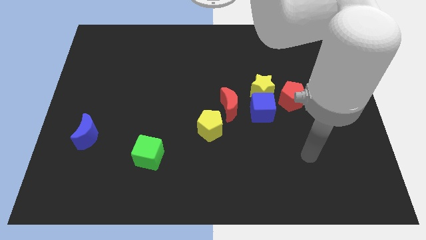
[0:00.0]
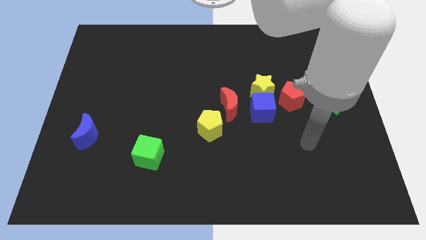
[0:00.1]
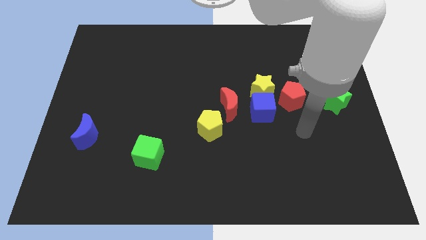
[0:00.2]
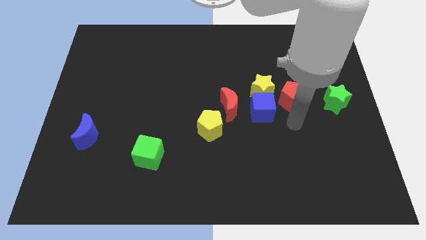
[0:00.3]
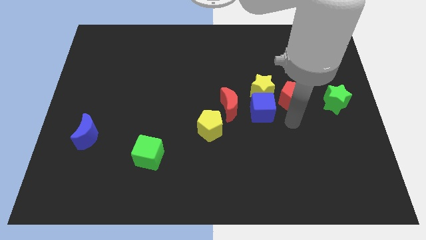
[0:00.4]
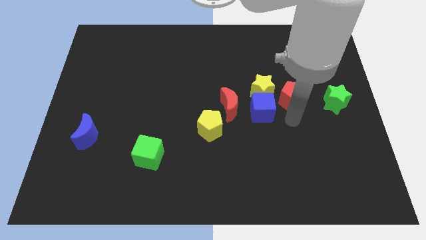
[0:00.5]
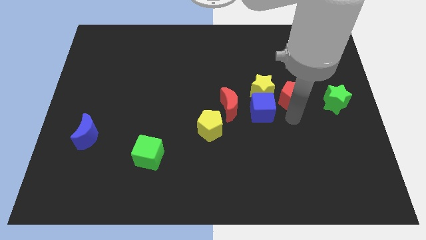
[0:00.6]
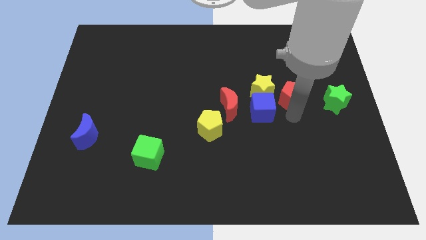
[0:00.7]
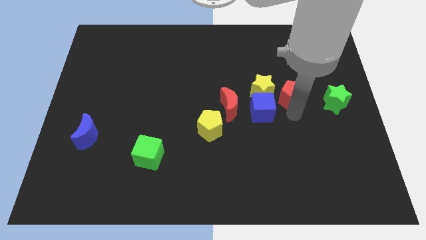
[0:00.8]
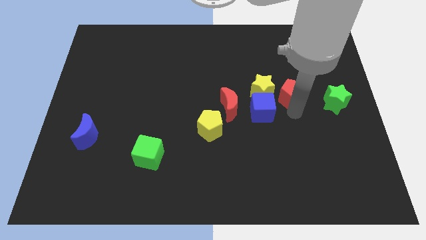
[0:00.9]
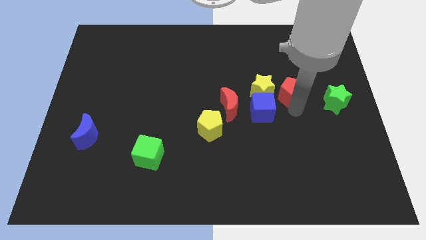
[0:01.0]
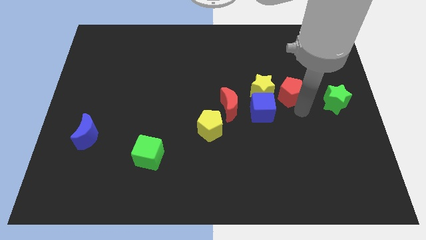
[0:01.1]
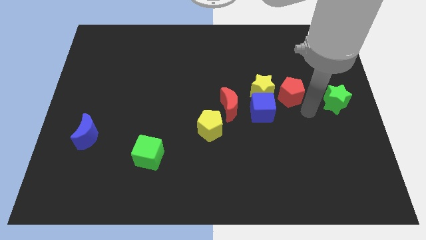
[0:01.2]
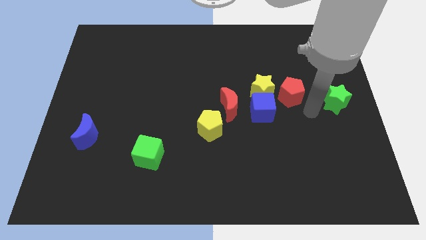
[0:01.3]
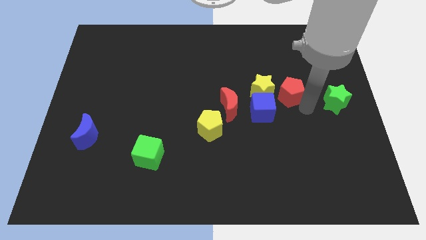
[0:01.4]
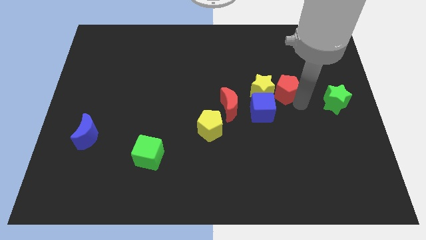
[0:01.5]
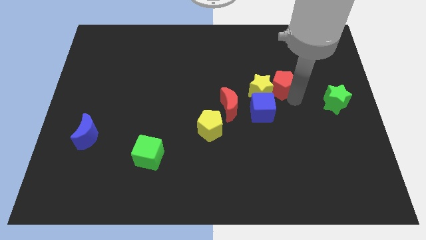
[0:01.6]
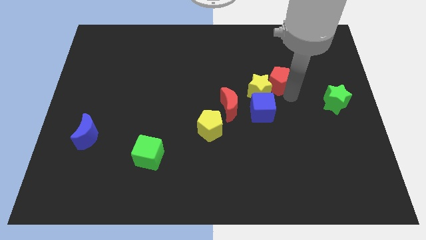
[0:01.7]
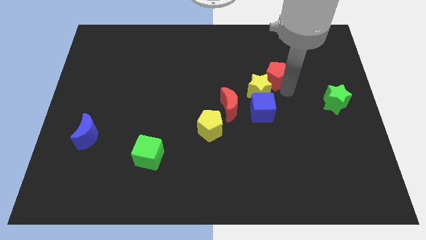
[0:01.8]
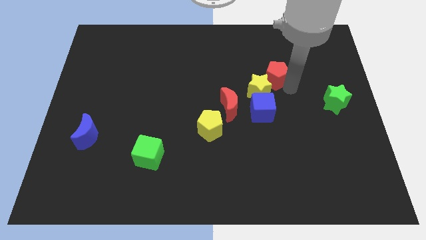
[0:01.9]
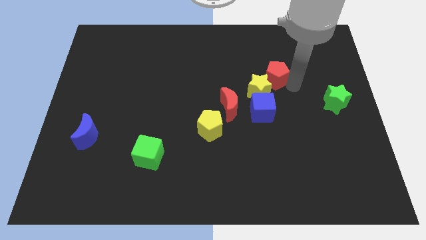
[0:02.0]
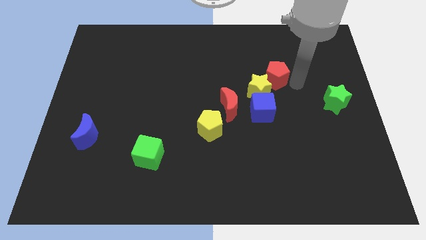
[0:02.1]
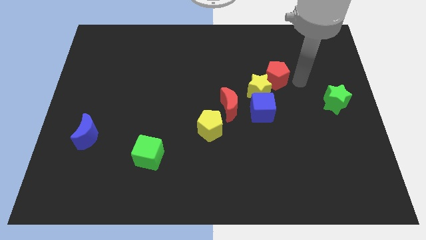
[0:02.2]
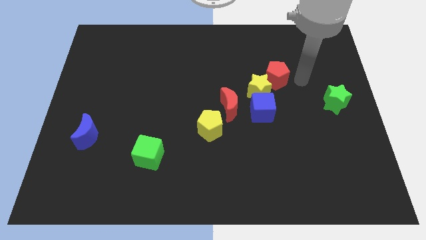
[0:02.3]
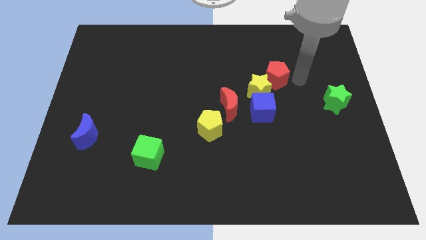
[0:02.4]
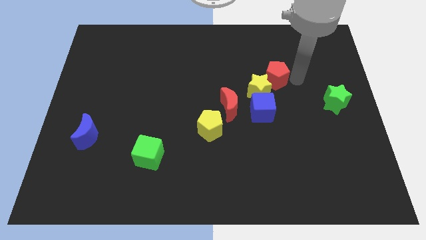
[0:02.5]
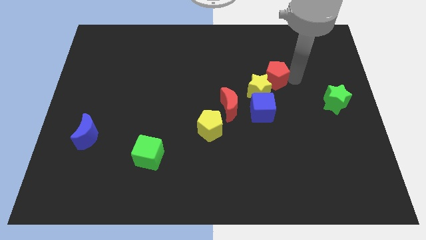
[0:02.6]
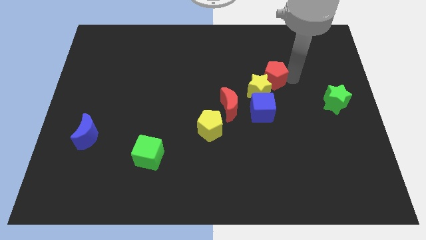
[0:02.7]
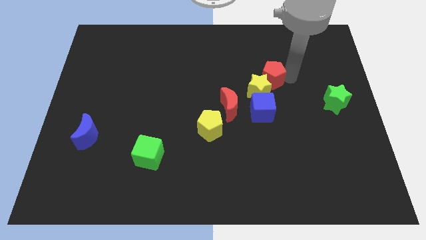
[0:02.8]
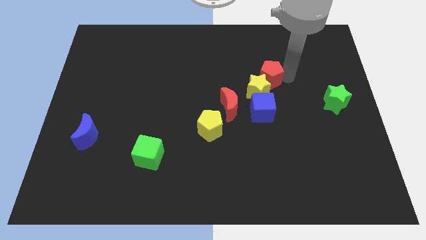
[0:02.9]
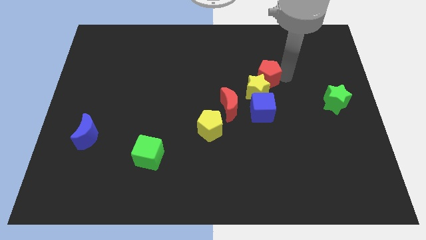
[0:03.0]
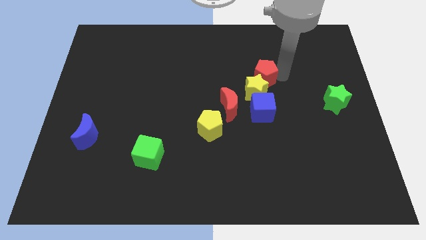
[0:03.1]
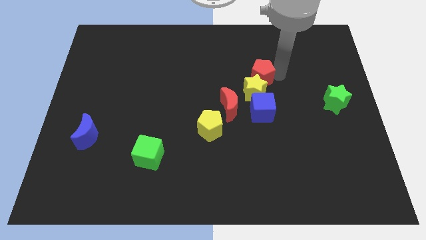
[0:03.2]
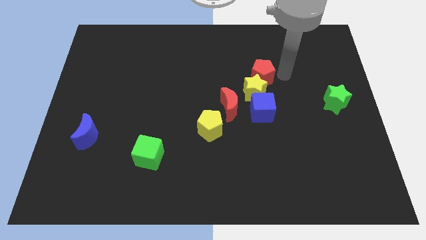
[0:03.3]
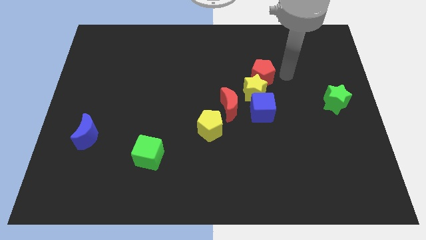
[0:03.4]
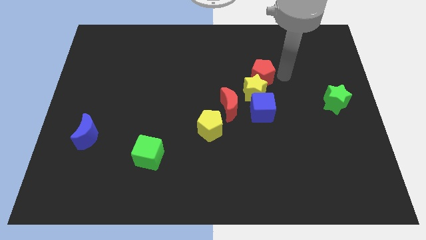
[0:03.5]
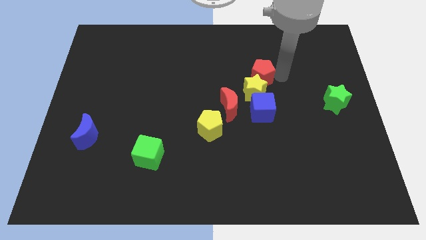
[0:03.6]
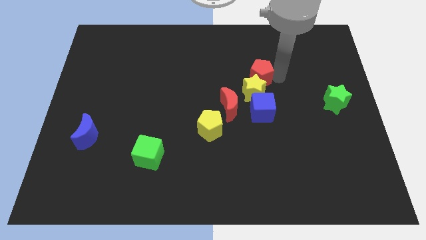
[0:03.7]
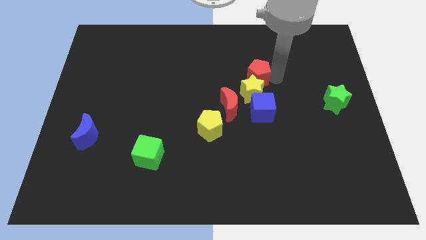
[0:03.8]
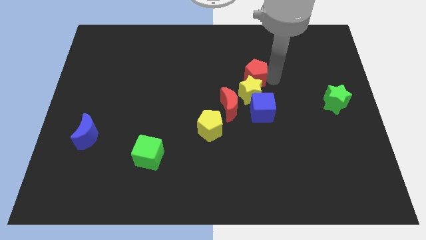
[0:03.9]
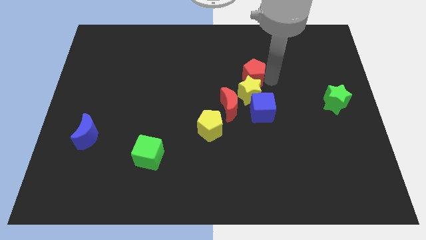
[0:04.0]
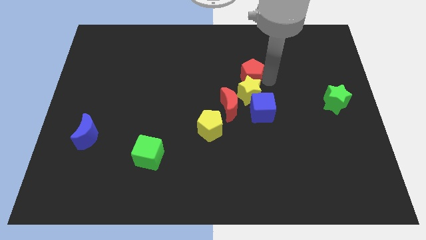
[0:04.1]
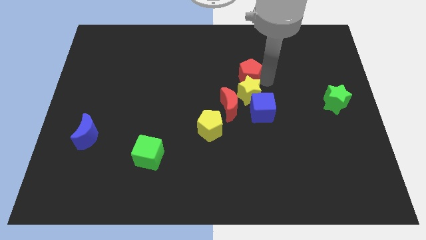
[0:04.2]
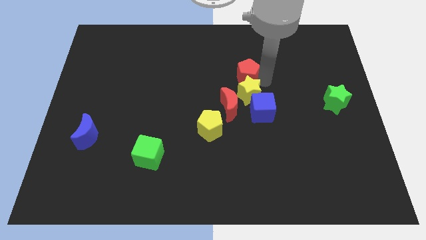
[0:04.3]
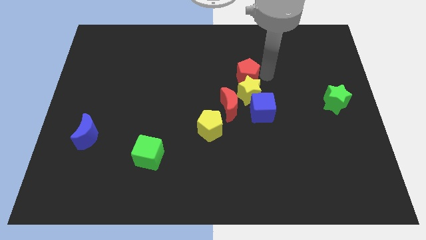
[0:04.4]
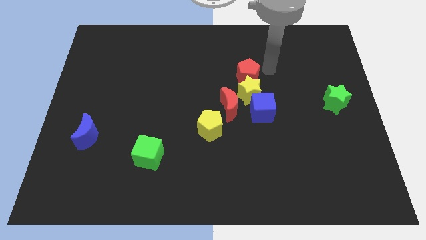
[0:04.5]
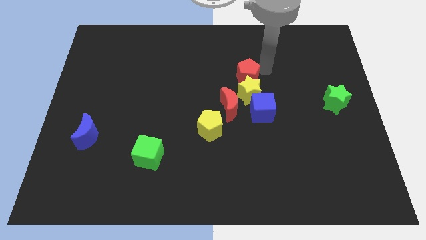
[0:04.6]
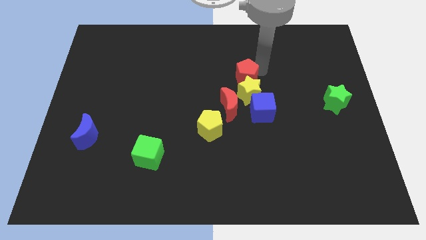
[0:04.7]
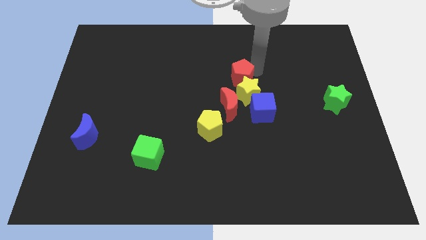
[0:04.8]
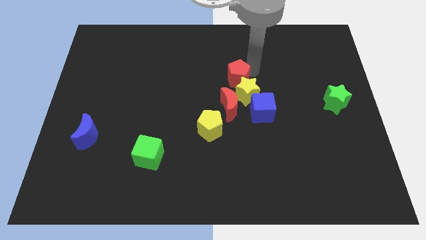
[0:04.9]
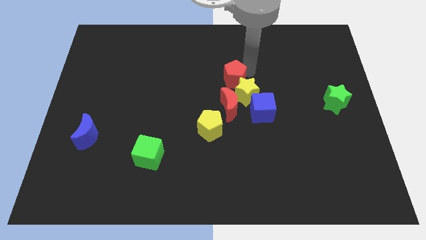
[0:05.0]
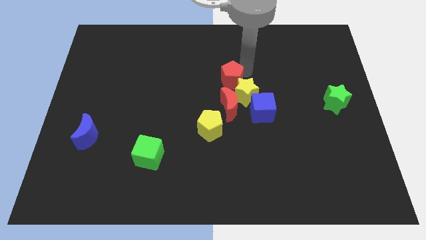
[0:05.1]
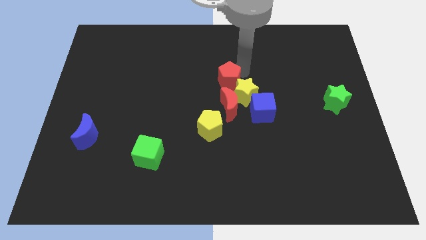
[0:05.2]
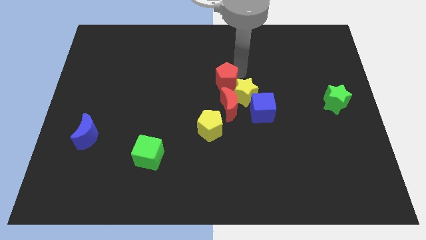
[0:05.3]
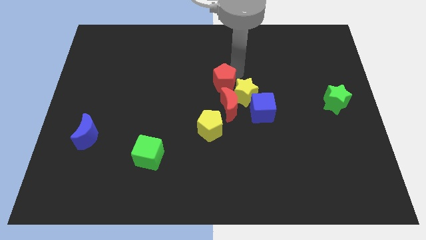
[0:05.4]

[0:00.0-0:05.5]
slide the red pentagon to the top left of the red moon

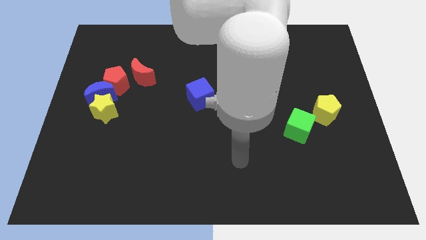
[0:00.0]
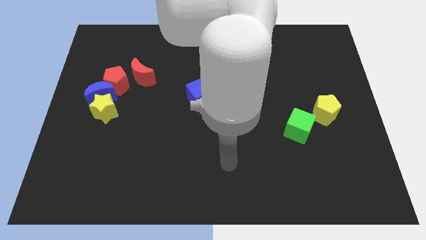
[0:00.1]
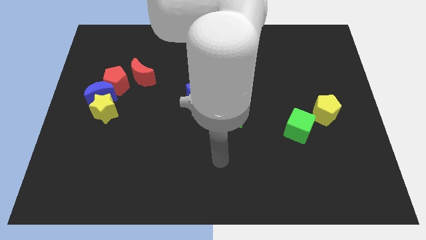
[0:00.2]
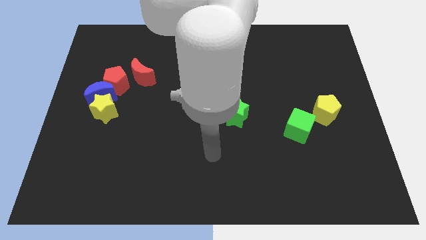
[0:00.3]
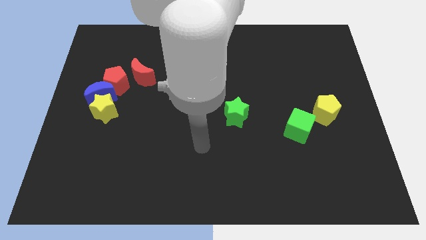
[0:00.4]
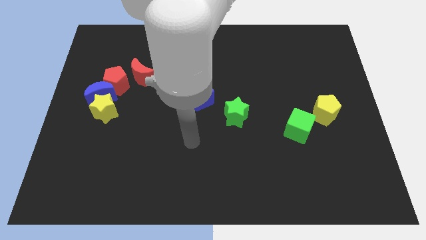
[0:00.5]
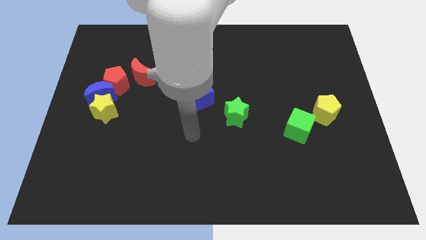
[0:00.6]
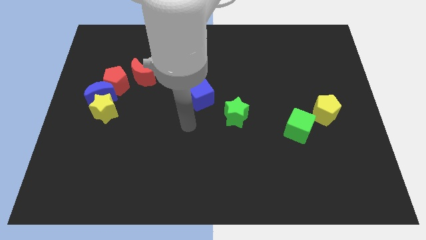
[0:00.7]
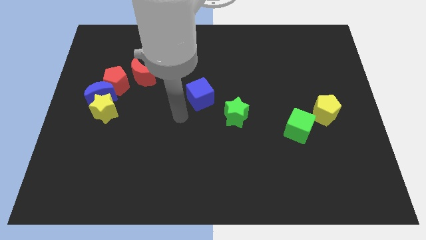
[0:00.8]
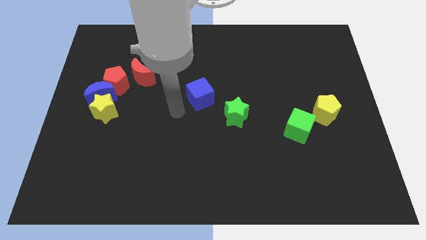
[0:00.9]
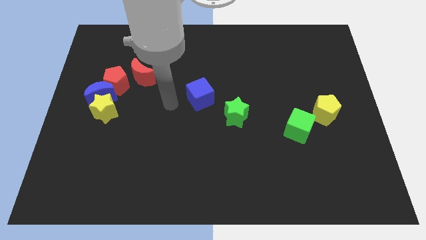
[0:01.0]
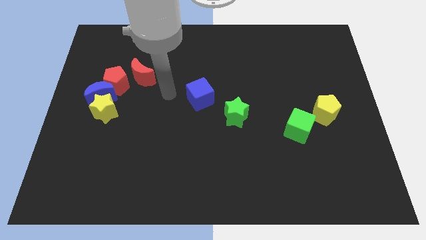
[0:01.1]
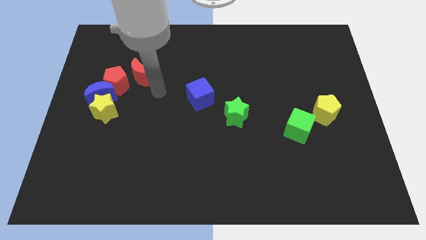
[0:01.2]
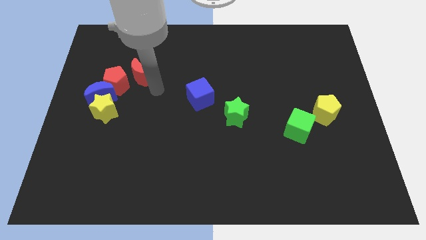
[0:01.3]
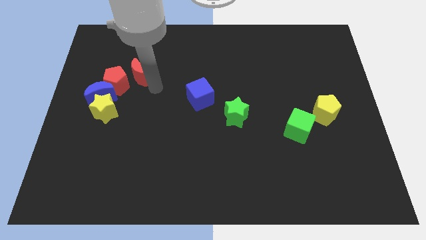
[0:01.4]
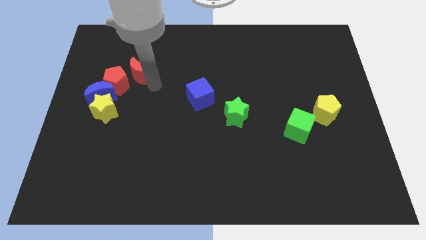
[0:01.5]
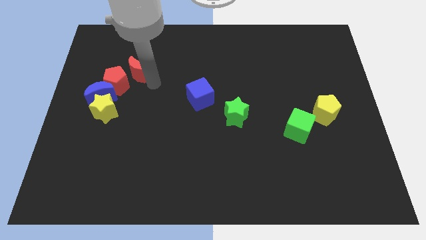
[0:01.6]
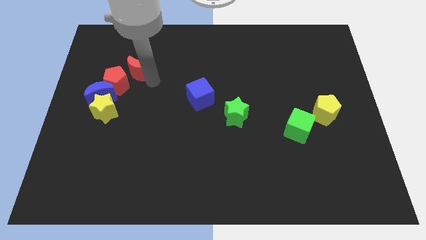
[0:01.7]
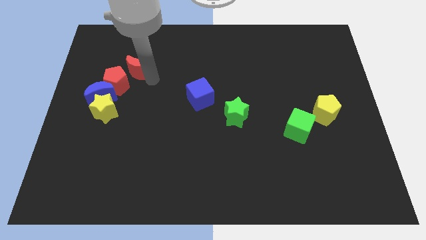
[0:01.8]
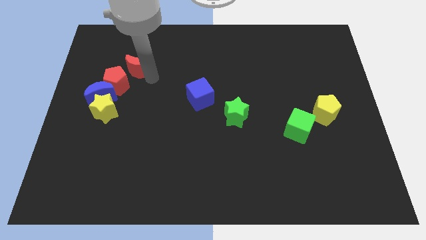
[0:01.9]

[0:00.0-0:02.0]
put the red moon above the red pentagon
